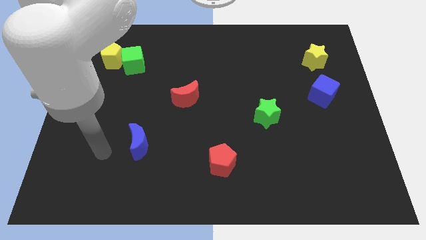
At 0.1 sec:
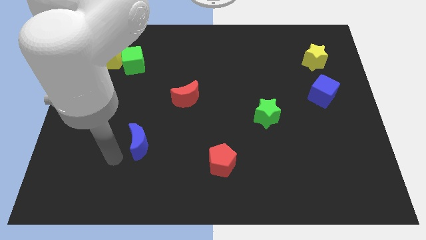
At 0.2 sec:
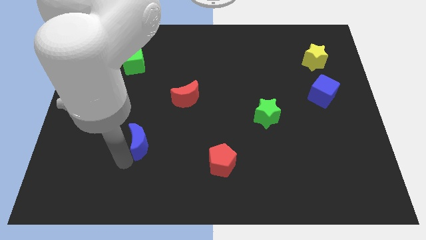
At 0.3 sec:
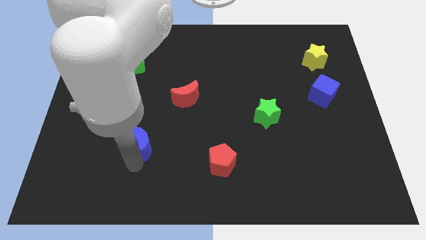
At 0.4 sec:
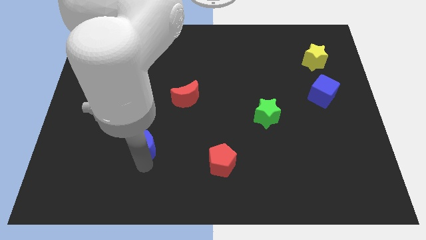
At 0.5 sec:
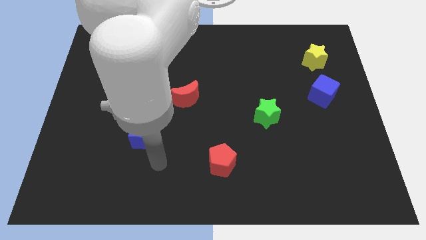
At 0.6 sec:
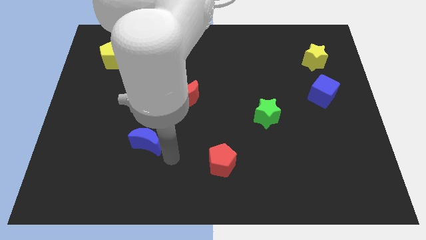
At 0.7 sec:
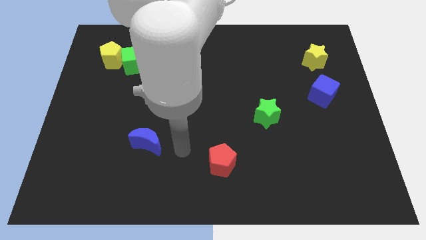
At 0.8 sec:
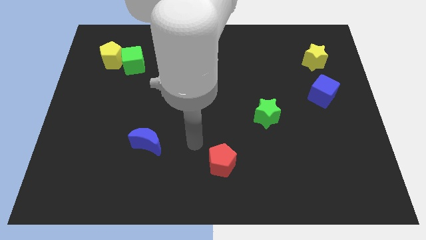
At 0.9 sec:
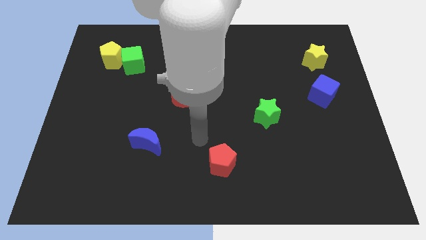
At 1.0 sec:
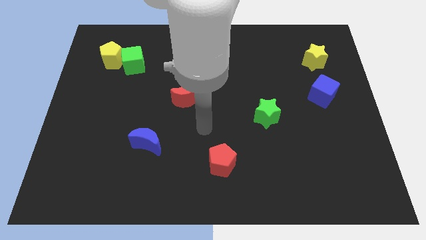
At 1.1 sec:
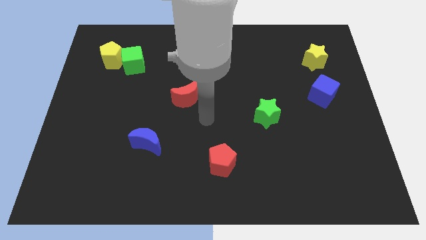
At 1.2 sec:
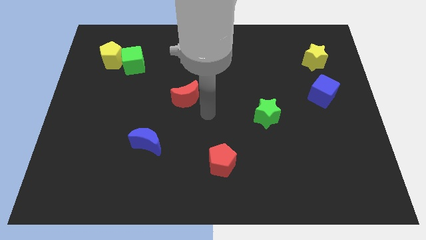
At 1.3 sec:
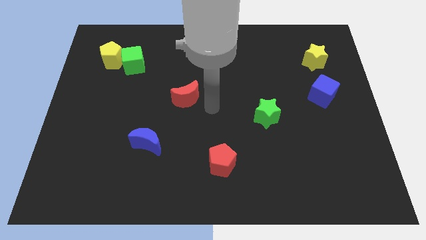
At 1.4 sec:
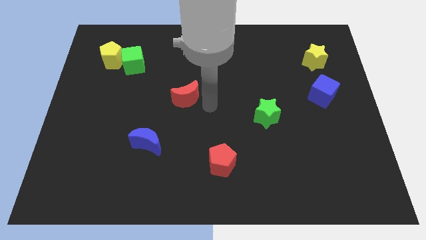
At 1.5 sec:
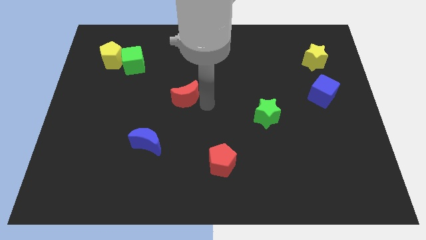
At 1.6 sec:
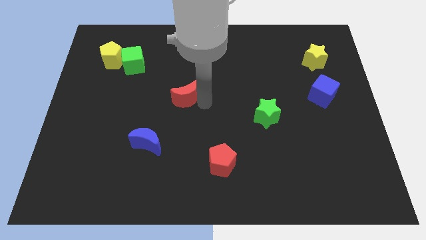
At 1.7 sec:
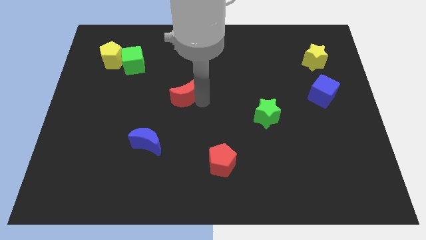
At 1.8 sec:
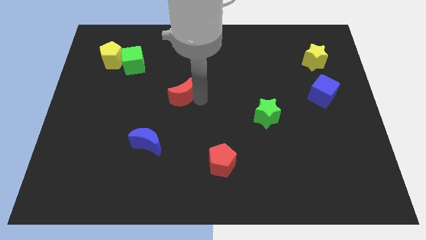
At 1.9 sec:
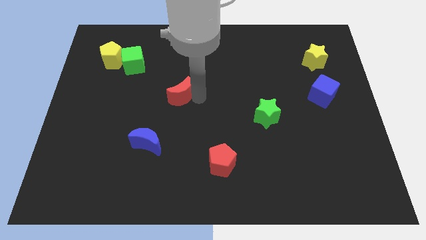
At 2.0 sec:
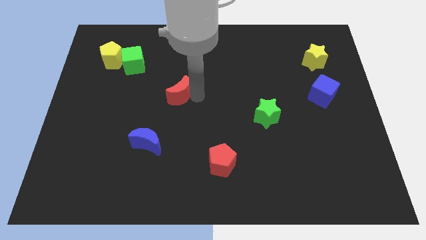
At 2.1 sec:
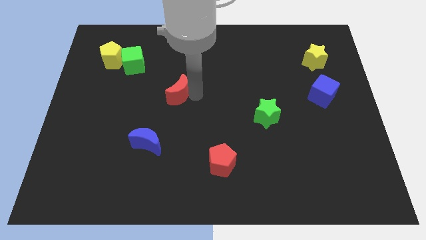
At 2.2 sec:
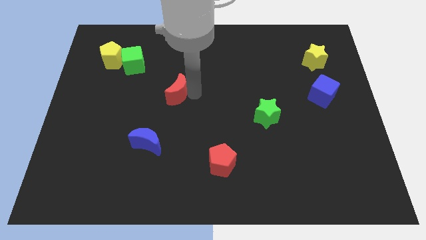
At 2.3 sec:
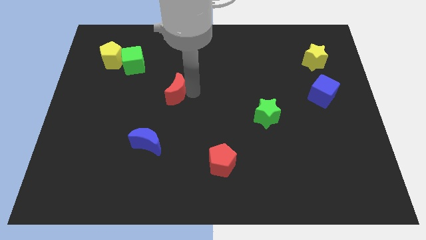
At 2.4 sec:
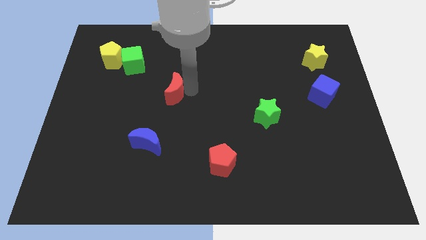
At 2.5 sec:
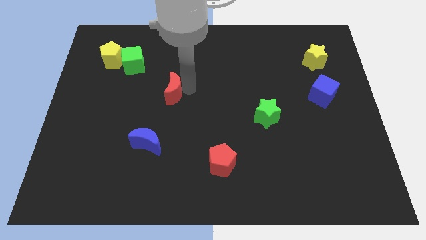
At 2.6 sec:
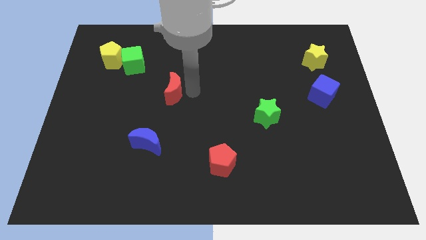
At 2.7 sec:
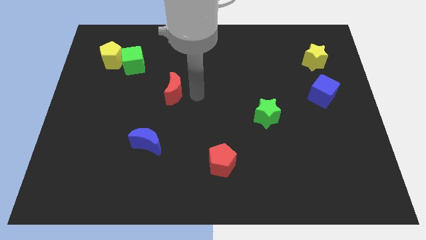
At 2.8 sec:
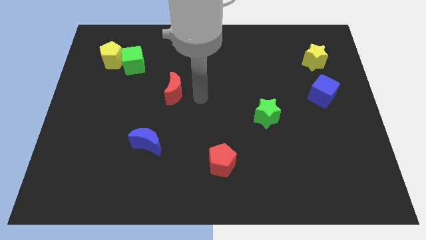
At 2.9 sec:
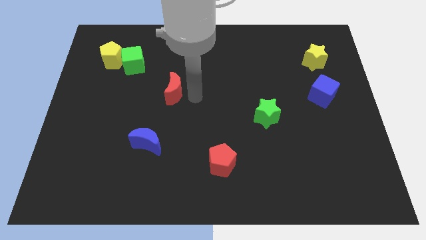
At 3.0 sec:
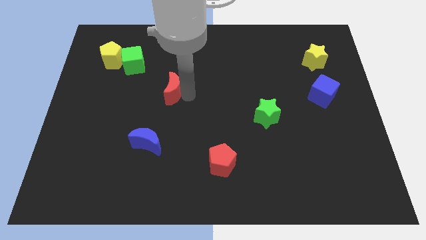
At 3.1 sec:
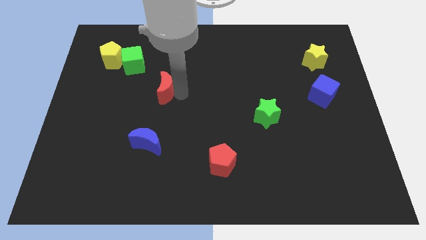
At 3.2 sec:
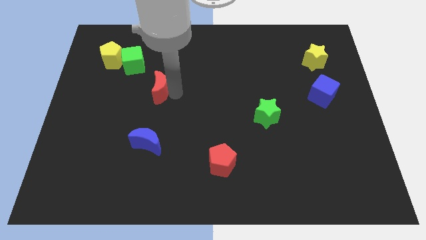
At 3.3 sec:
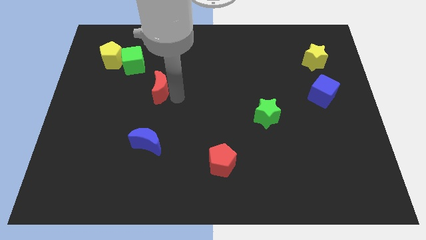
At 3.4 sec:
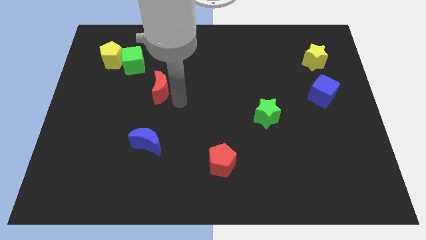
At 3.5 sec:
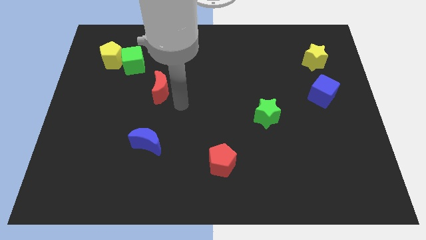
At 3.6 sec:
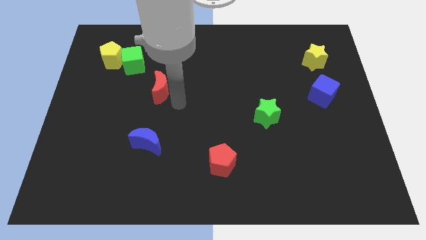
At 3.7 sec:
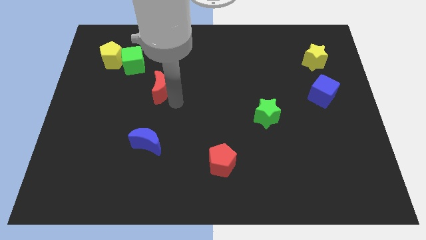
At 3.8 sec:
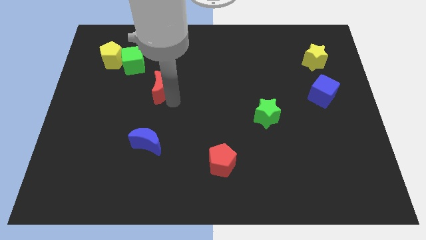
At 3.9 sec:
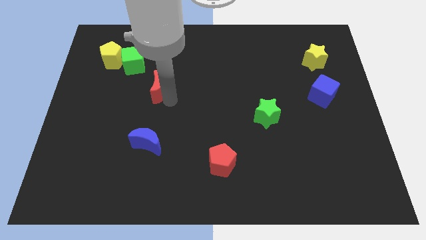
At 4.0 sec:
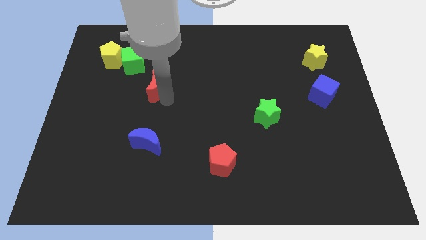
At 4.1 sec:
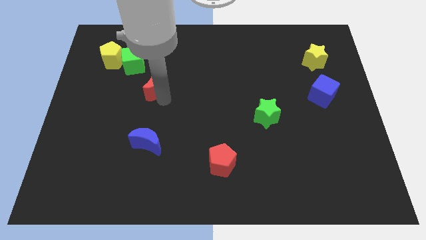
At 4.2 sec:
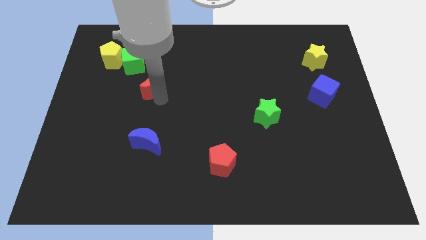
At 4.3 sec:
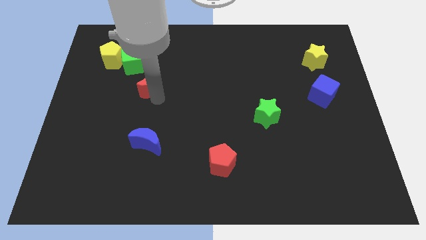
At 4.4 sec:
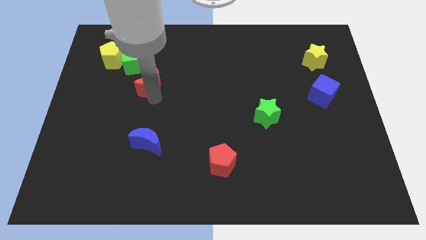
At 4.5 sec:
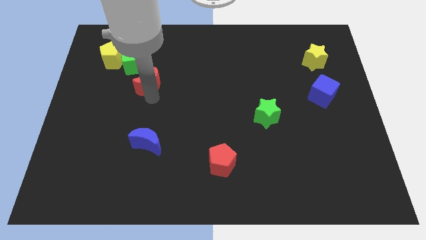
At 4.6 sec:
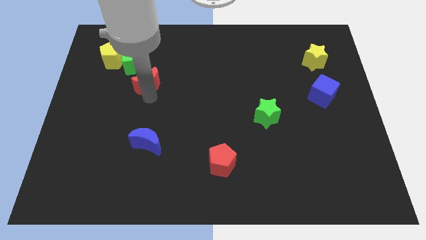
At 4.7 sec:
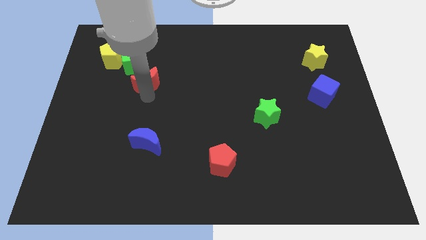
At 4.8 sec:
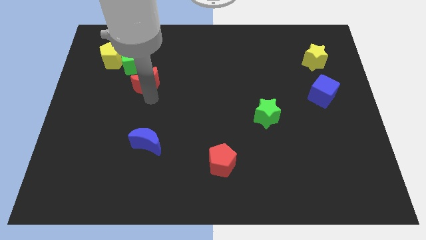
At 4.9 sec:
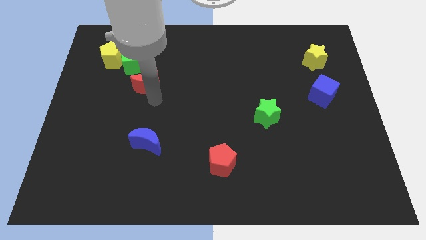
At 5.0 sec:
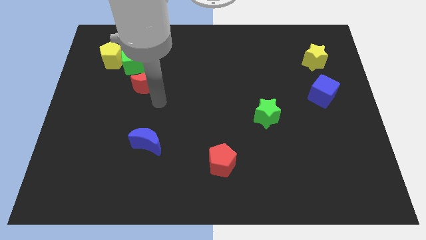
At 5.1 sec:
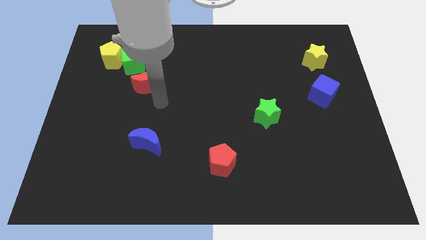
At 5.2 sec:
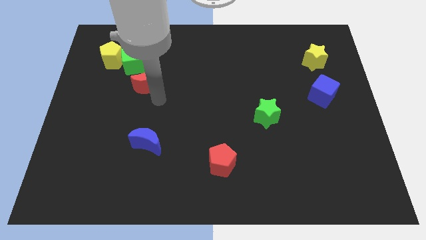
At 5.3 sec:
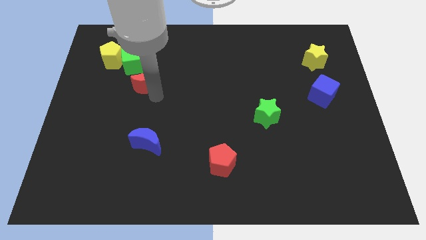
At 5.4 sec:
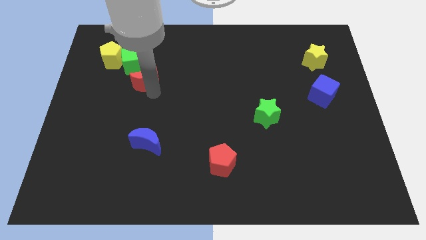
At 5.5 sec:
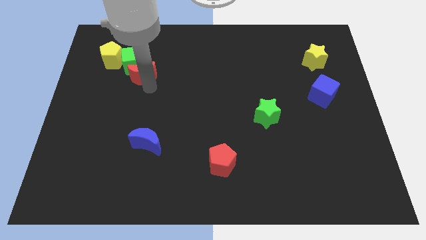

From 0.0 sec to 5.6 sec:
put the red moon towards the green cube

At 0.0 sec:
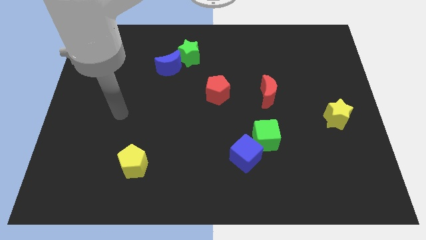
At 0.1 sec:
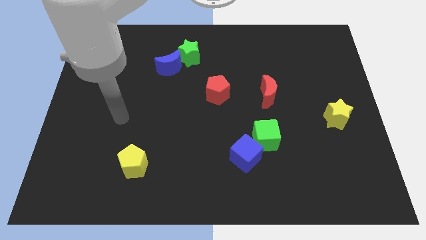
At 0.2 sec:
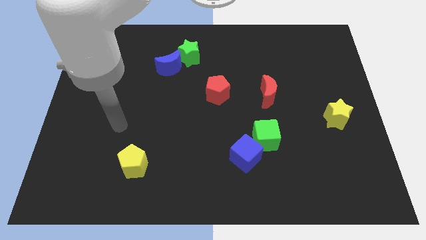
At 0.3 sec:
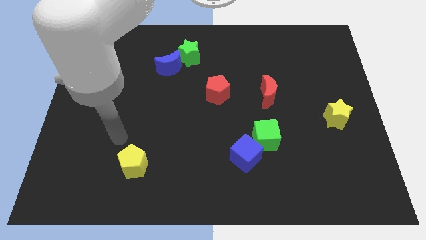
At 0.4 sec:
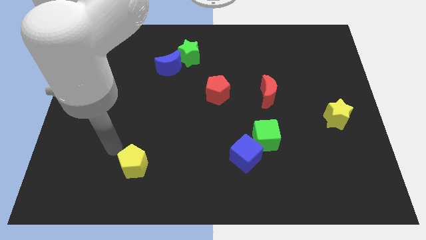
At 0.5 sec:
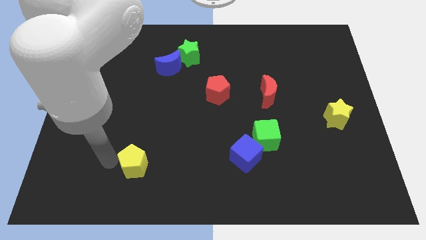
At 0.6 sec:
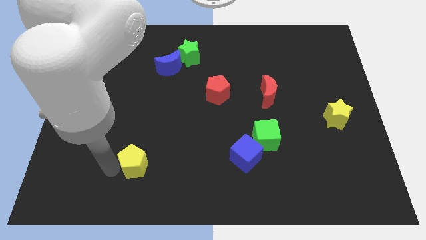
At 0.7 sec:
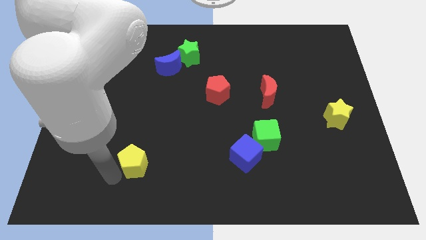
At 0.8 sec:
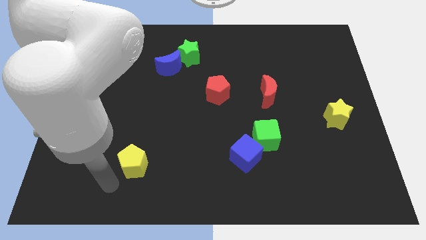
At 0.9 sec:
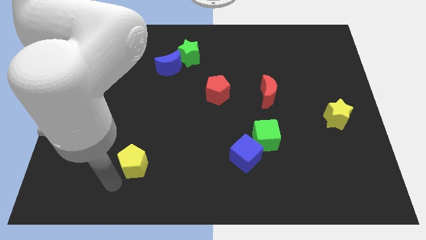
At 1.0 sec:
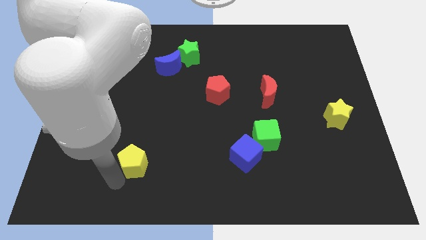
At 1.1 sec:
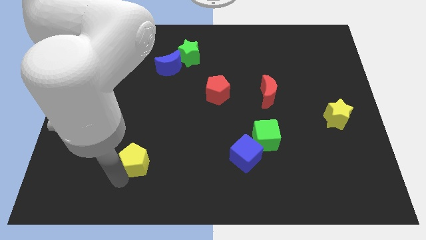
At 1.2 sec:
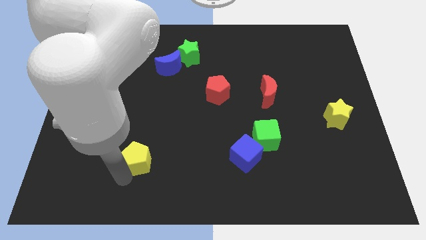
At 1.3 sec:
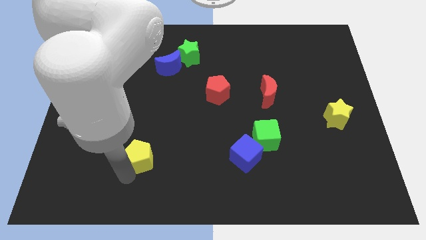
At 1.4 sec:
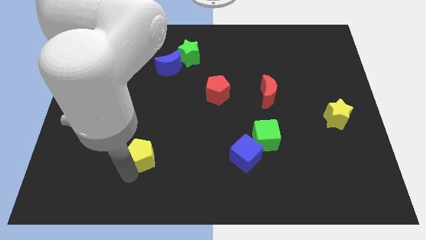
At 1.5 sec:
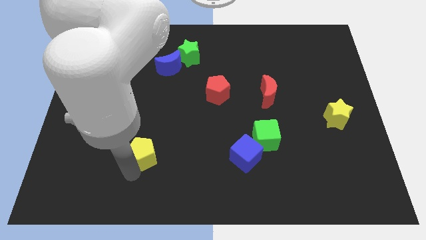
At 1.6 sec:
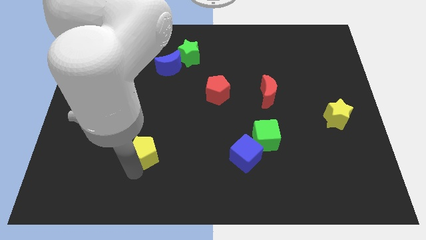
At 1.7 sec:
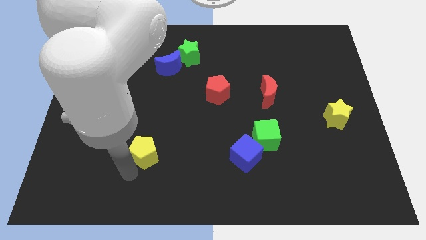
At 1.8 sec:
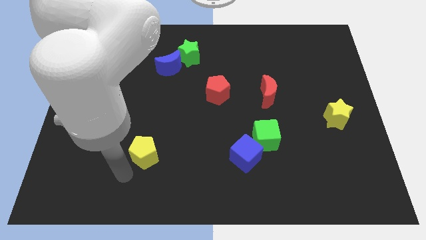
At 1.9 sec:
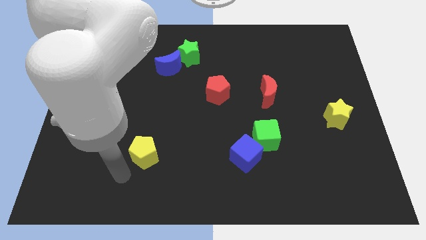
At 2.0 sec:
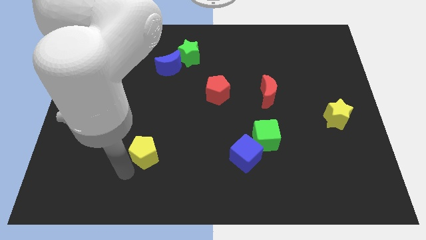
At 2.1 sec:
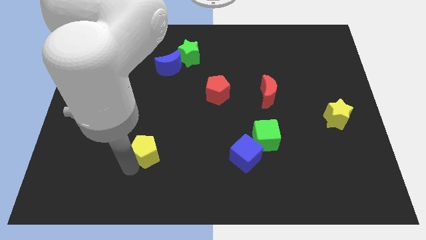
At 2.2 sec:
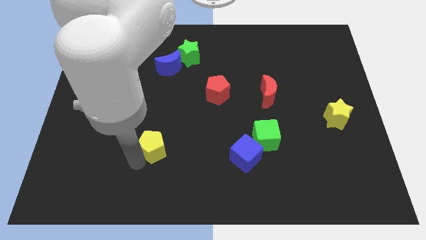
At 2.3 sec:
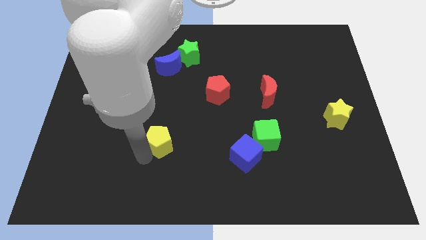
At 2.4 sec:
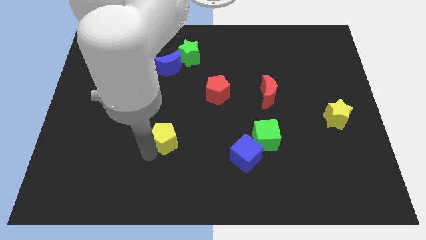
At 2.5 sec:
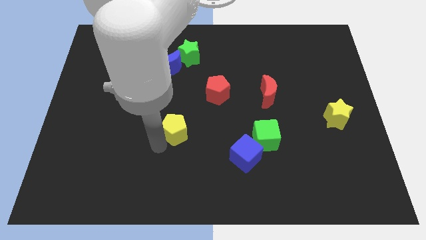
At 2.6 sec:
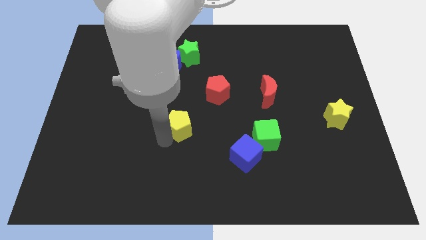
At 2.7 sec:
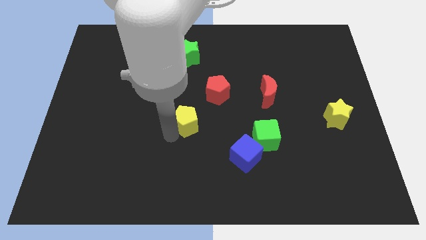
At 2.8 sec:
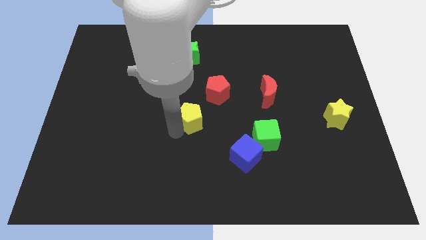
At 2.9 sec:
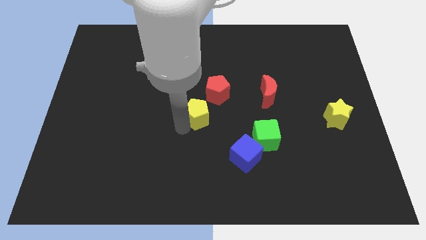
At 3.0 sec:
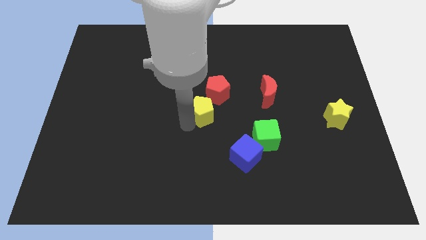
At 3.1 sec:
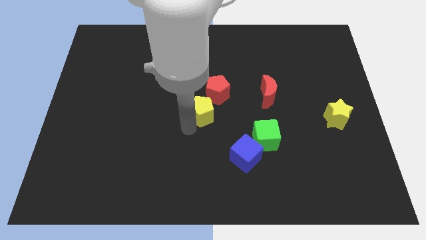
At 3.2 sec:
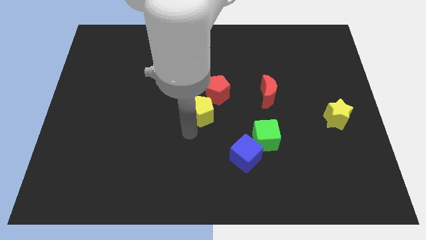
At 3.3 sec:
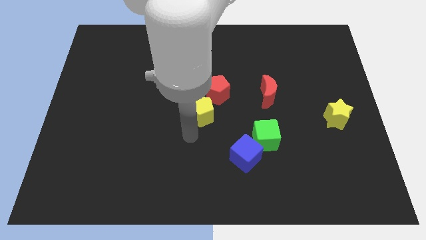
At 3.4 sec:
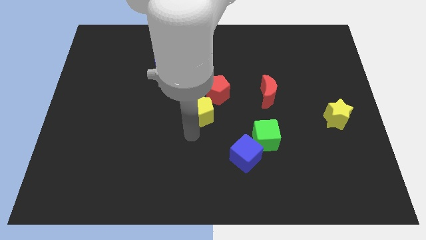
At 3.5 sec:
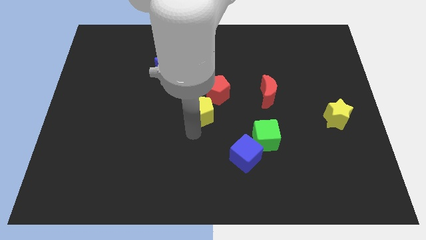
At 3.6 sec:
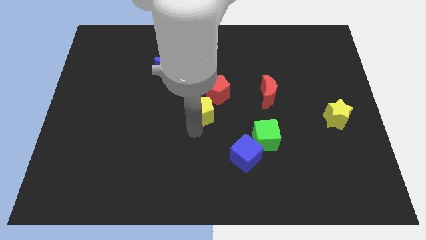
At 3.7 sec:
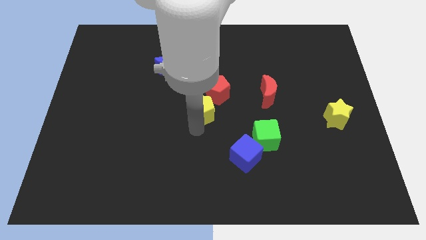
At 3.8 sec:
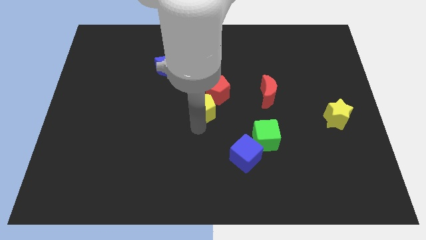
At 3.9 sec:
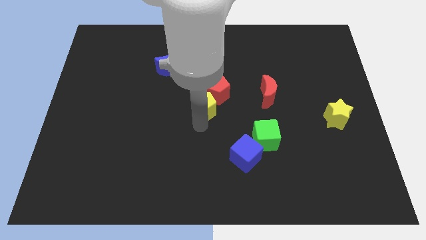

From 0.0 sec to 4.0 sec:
push the yellow pentagon towards the red pentagon
